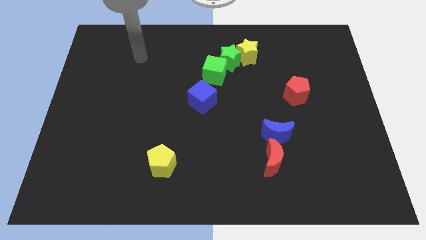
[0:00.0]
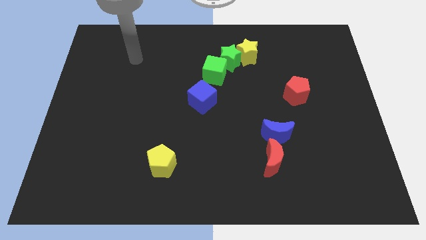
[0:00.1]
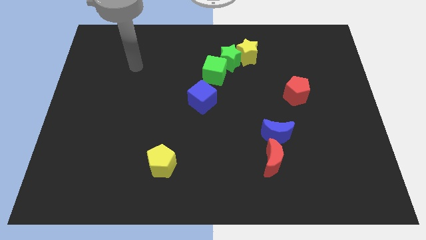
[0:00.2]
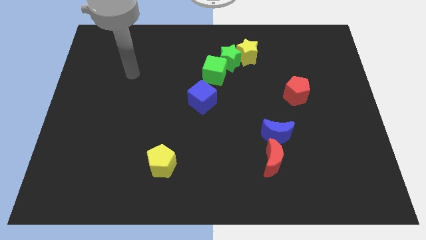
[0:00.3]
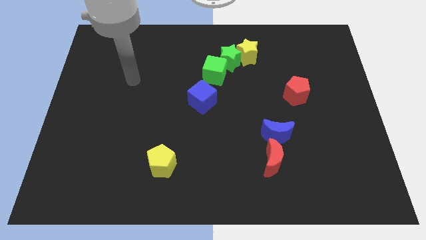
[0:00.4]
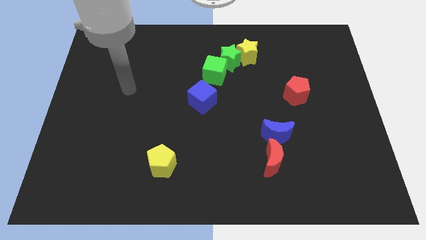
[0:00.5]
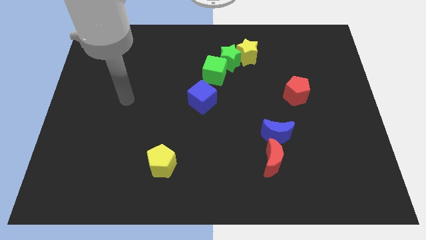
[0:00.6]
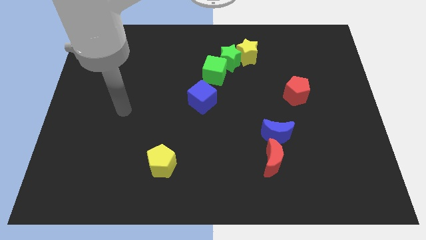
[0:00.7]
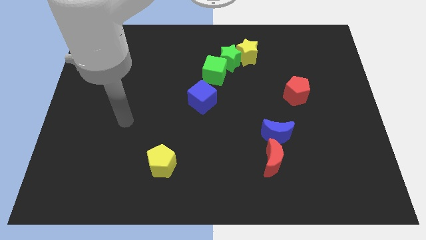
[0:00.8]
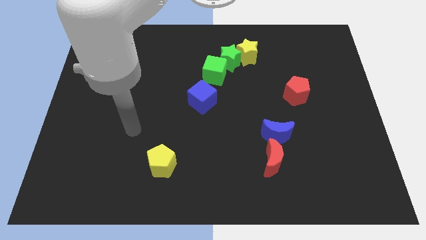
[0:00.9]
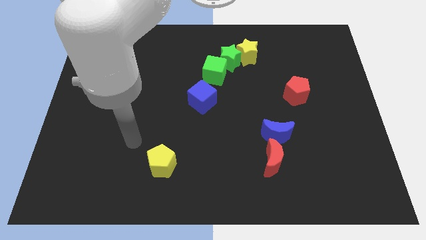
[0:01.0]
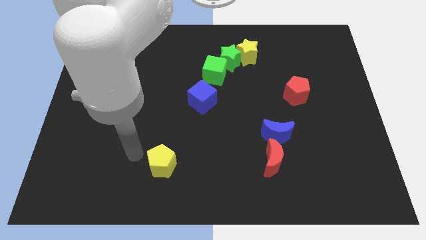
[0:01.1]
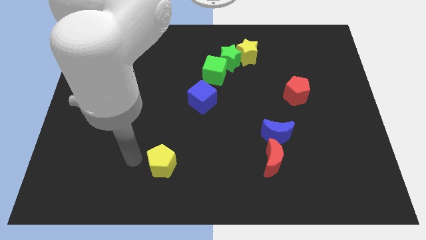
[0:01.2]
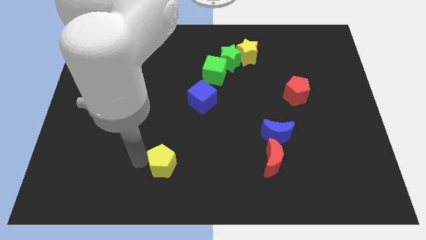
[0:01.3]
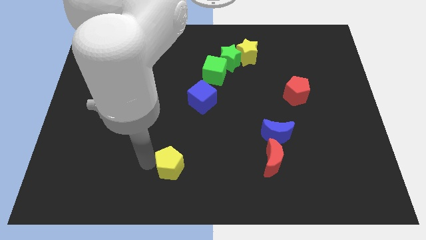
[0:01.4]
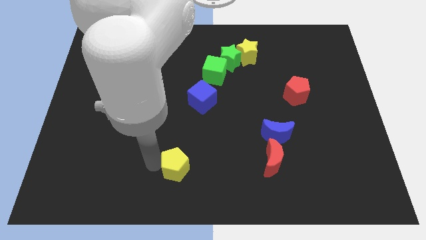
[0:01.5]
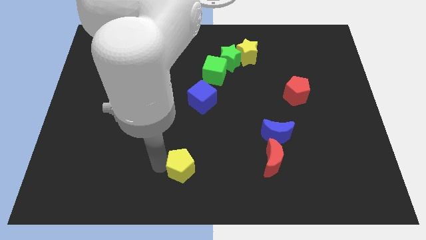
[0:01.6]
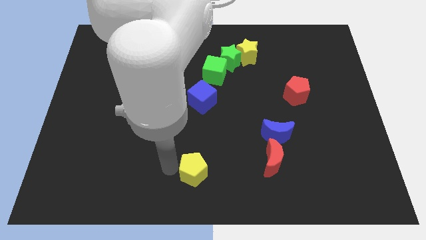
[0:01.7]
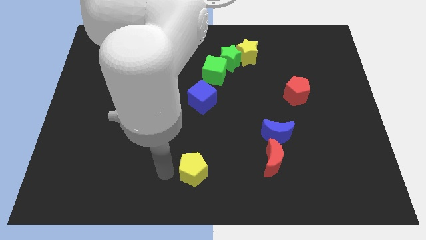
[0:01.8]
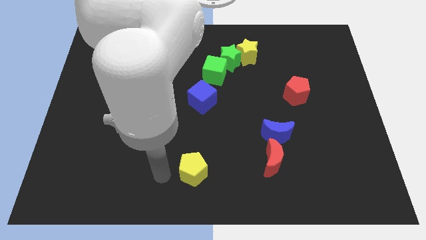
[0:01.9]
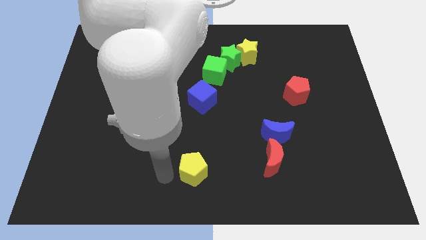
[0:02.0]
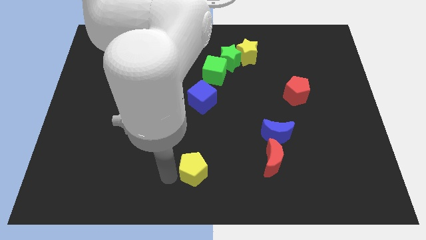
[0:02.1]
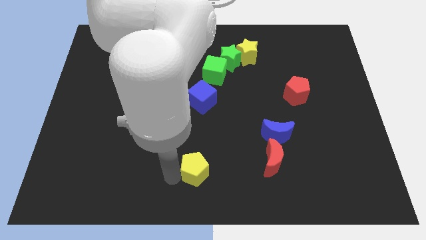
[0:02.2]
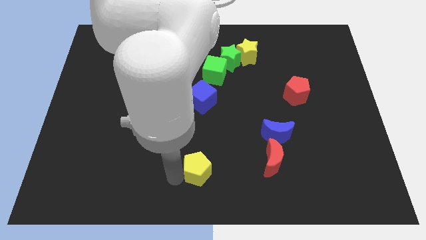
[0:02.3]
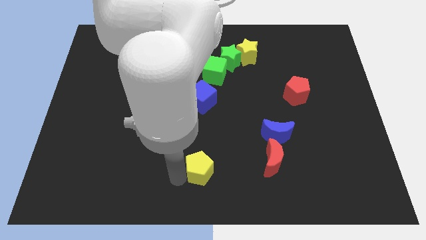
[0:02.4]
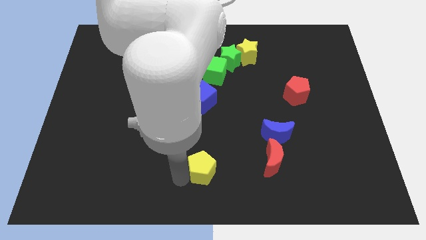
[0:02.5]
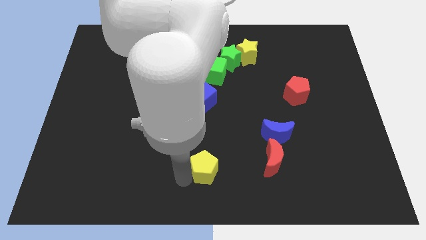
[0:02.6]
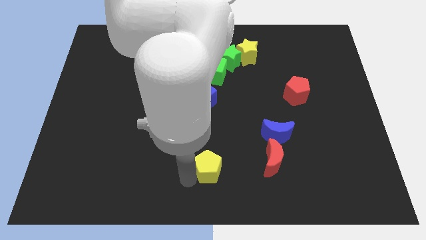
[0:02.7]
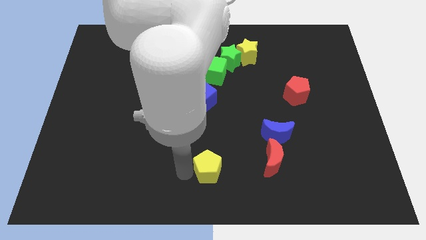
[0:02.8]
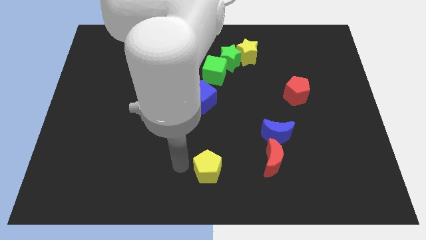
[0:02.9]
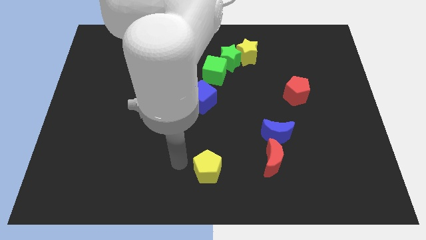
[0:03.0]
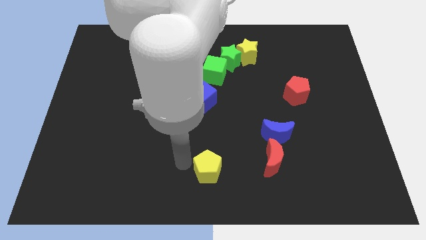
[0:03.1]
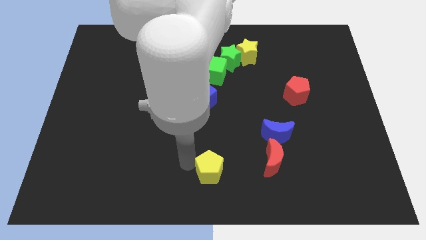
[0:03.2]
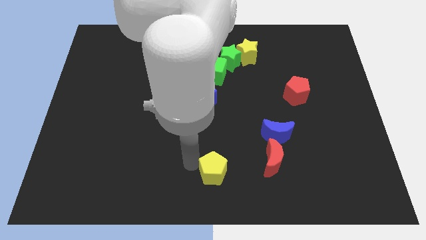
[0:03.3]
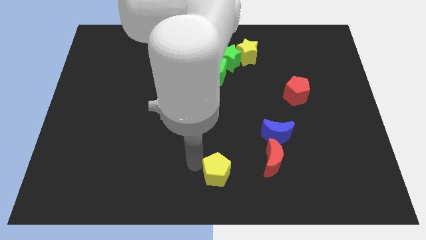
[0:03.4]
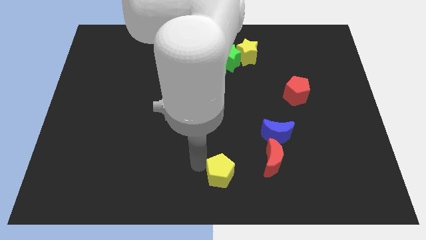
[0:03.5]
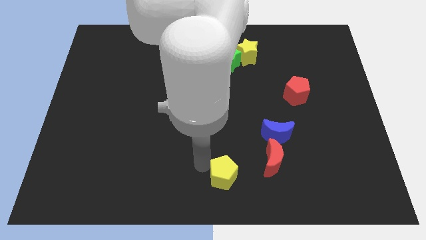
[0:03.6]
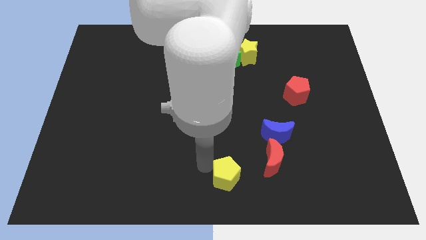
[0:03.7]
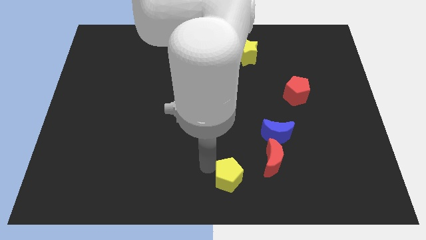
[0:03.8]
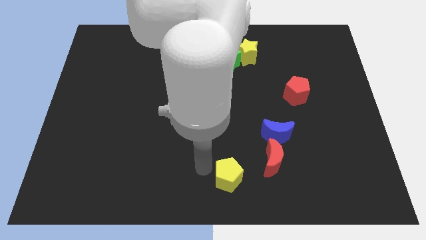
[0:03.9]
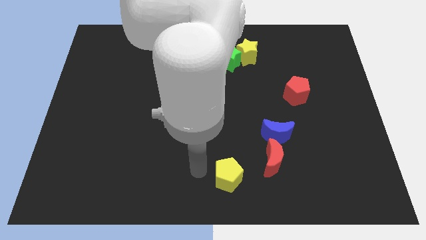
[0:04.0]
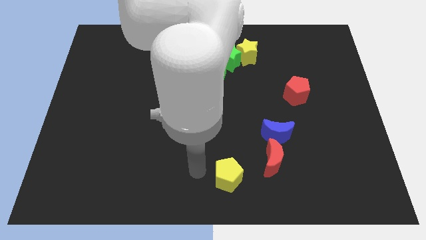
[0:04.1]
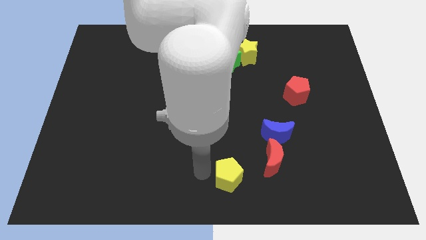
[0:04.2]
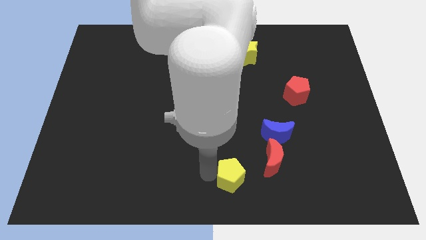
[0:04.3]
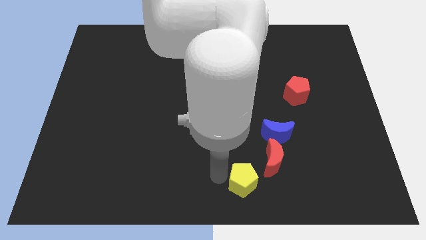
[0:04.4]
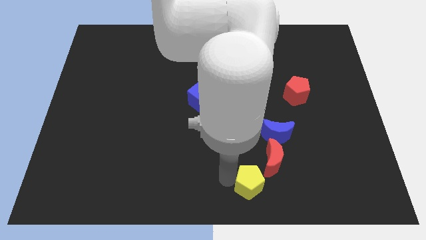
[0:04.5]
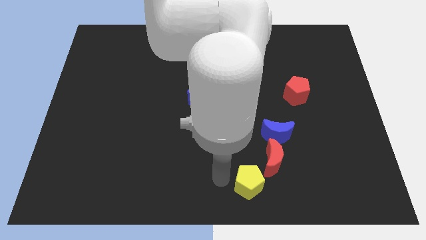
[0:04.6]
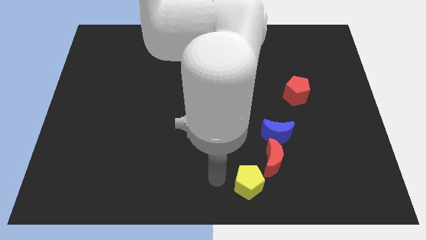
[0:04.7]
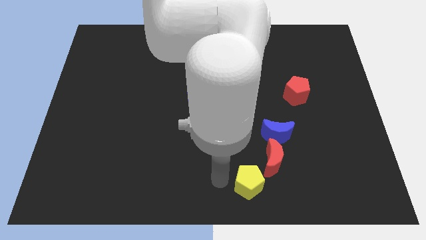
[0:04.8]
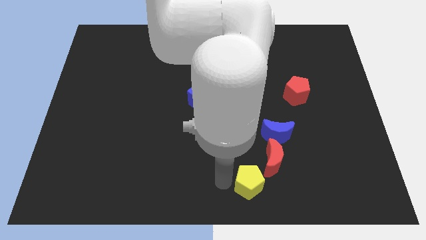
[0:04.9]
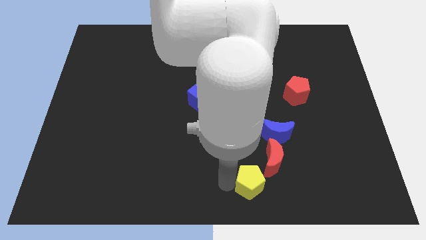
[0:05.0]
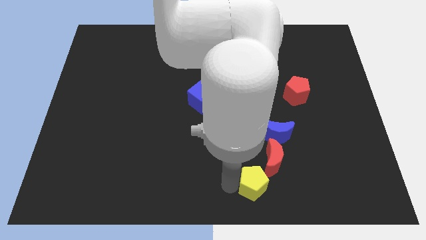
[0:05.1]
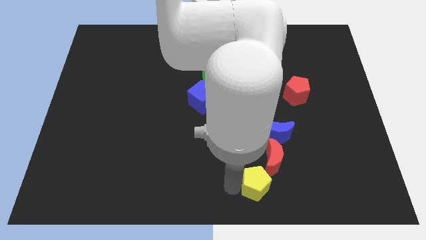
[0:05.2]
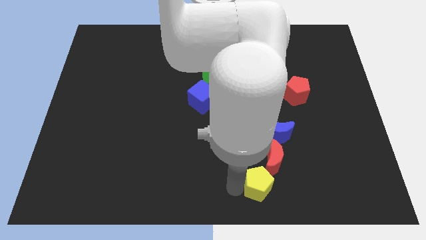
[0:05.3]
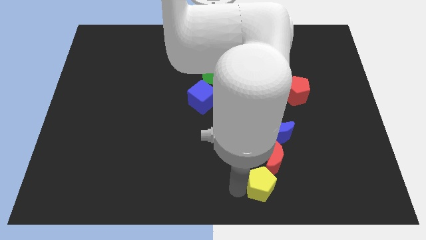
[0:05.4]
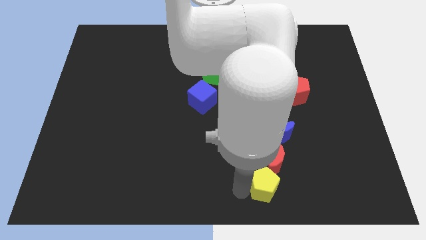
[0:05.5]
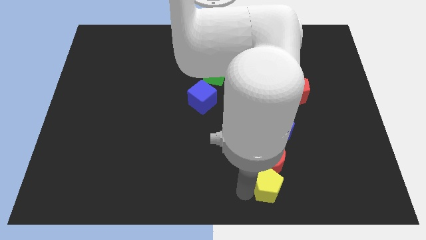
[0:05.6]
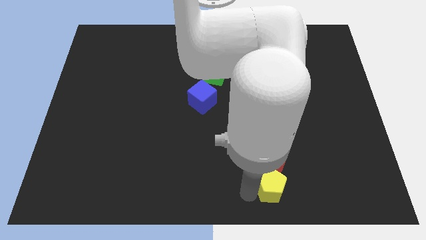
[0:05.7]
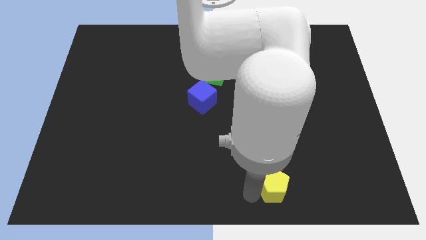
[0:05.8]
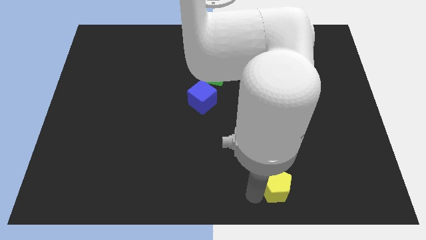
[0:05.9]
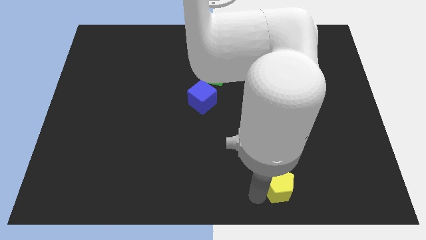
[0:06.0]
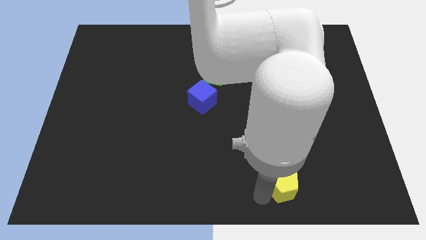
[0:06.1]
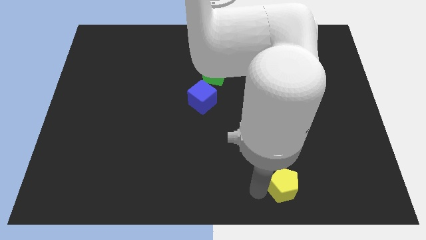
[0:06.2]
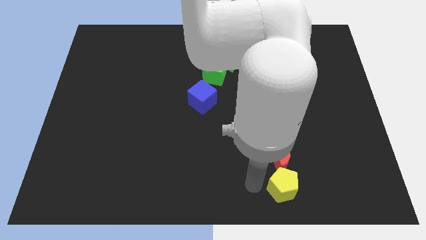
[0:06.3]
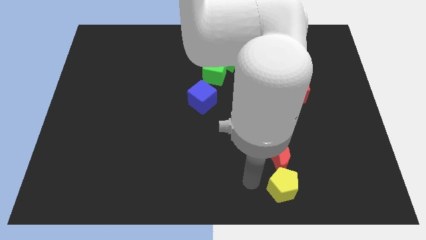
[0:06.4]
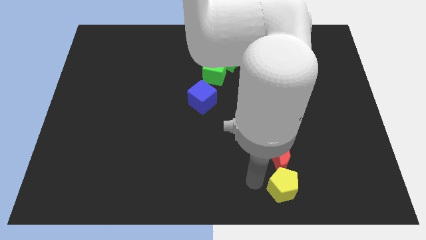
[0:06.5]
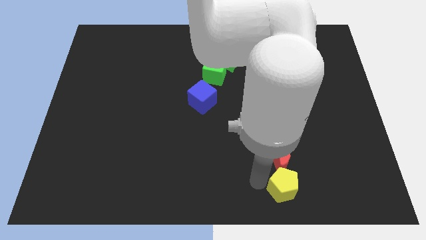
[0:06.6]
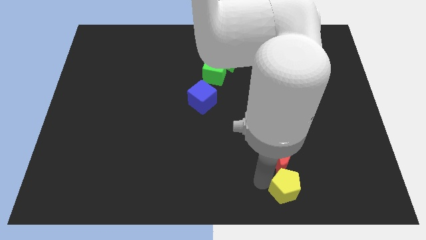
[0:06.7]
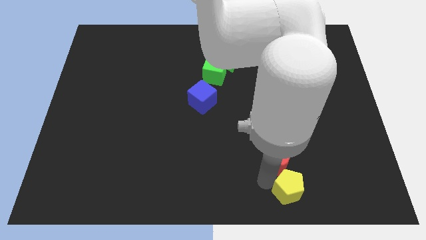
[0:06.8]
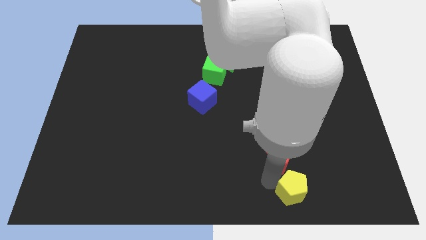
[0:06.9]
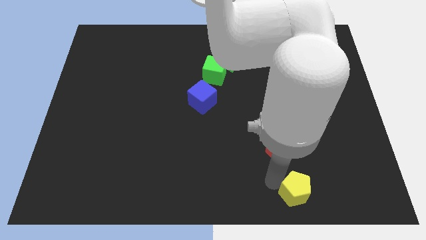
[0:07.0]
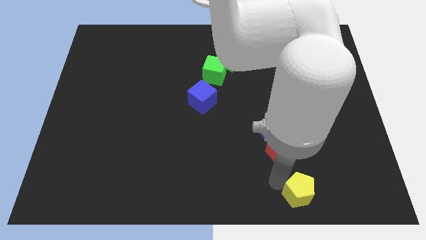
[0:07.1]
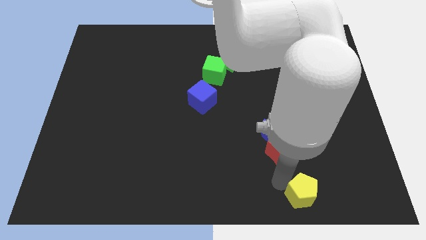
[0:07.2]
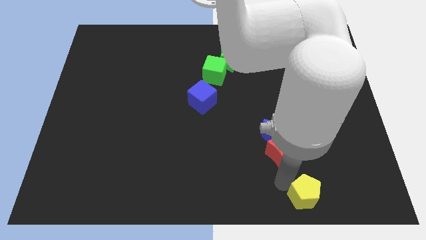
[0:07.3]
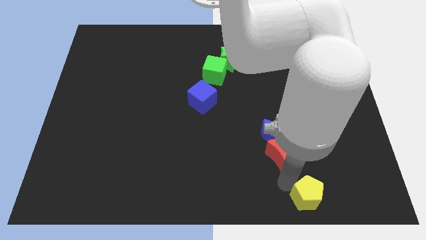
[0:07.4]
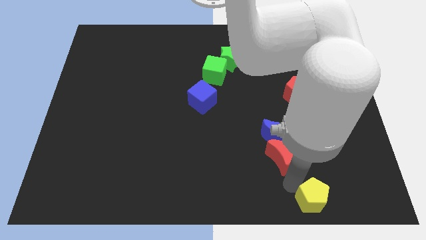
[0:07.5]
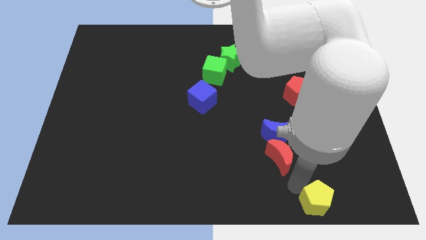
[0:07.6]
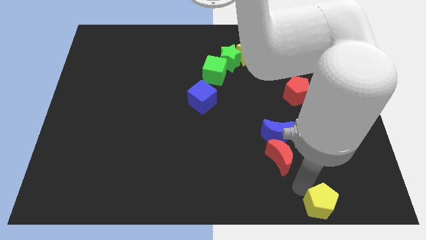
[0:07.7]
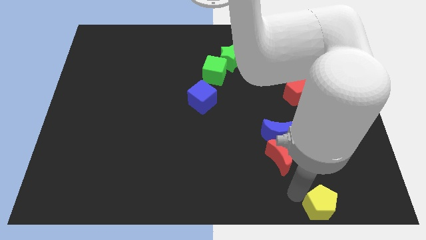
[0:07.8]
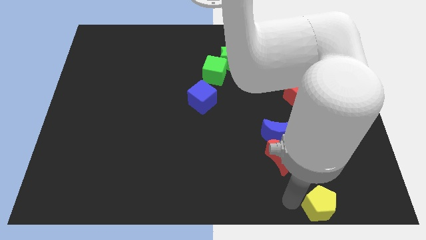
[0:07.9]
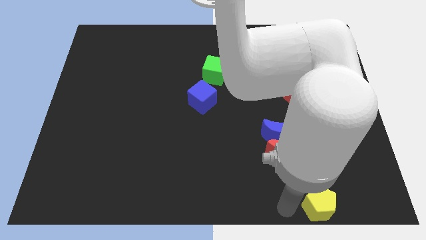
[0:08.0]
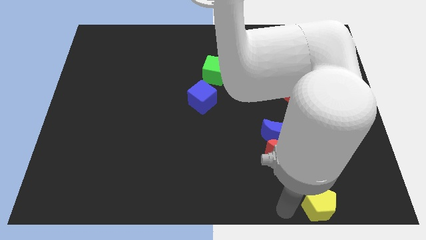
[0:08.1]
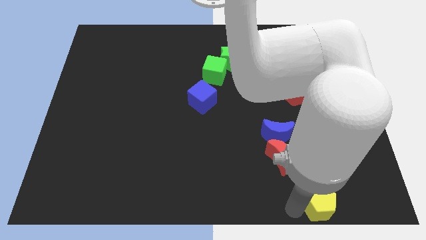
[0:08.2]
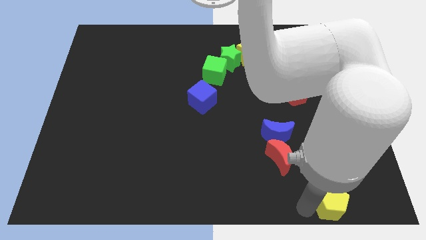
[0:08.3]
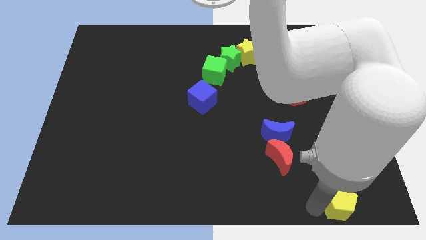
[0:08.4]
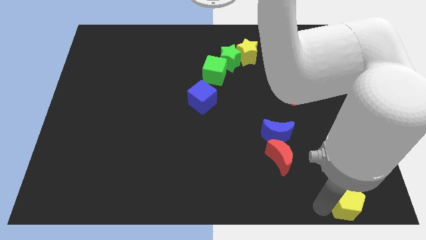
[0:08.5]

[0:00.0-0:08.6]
put the yellow pentagon to the lower right corner
